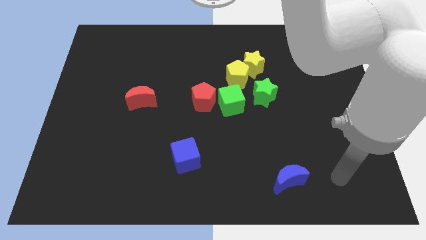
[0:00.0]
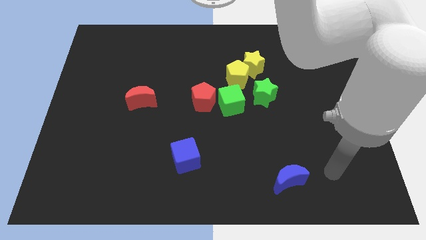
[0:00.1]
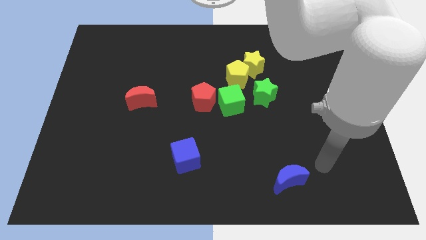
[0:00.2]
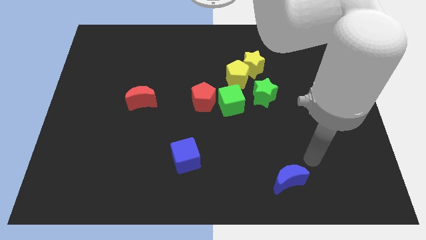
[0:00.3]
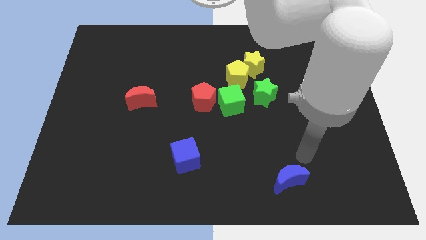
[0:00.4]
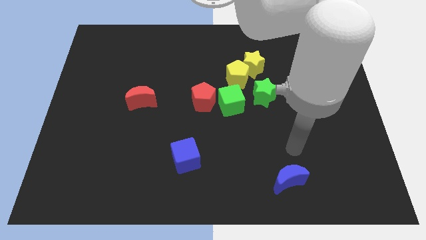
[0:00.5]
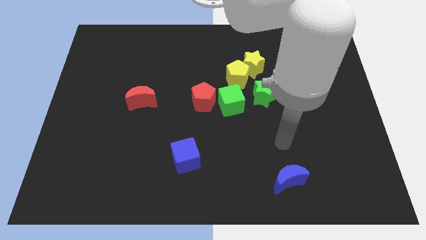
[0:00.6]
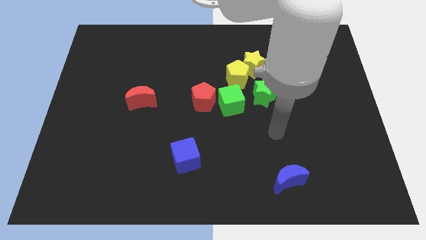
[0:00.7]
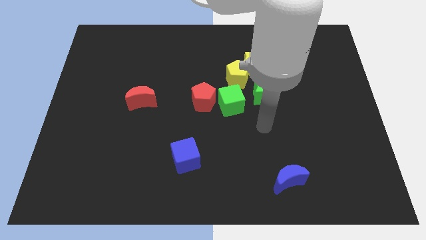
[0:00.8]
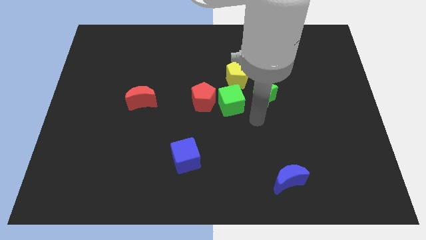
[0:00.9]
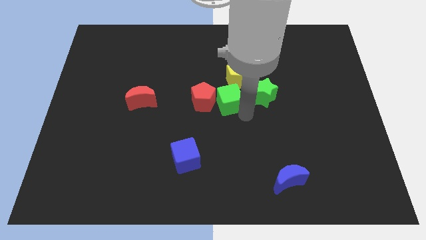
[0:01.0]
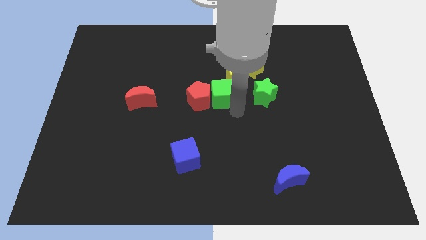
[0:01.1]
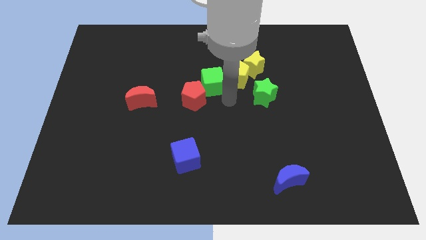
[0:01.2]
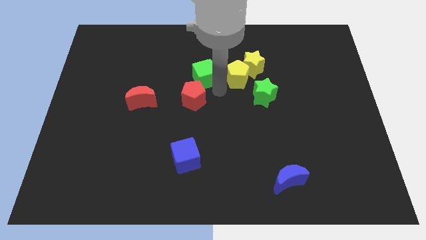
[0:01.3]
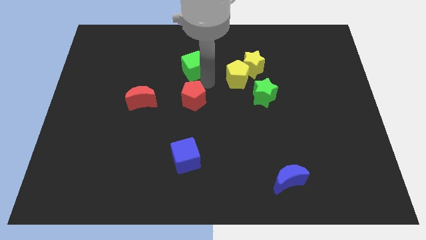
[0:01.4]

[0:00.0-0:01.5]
move the red pentagon away from the green cube

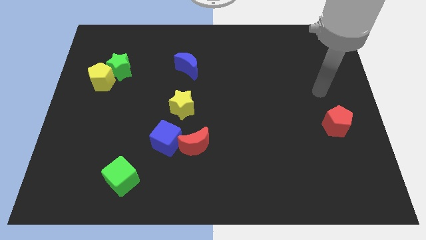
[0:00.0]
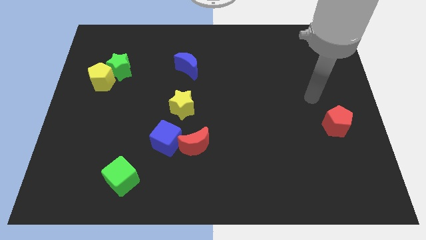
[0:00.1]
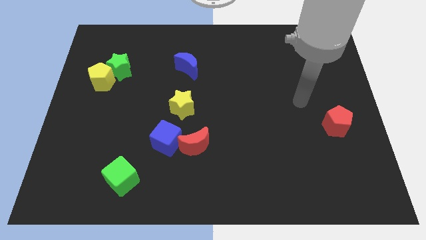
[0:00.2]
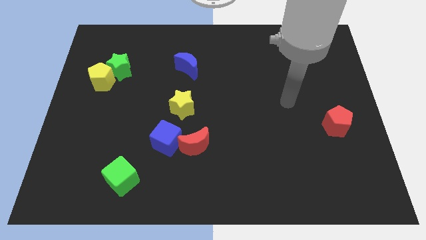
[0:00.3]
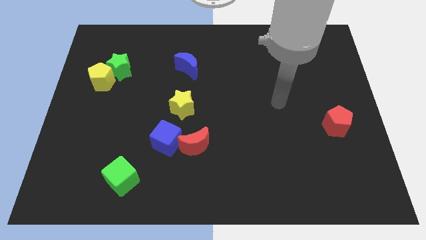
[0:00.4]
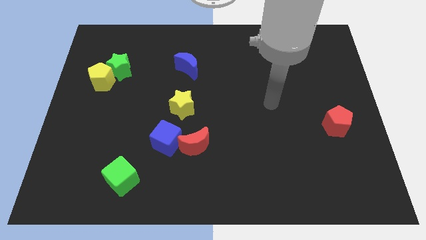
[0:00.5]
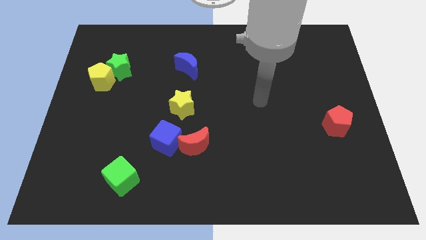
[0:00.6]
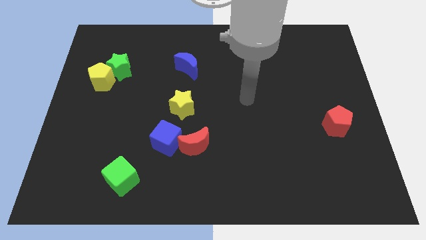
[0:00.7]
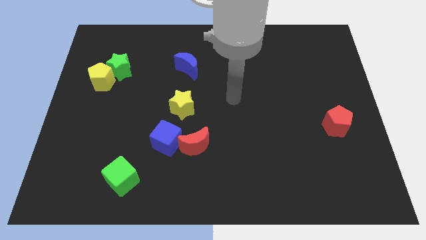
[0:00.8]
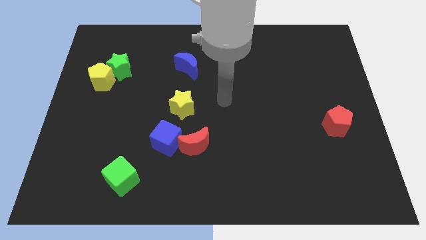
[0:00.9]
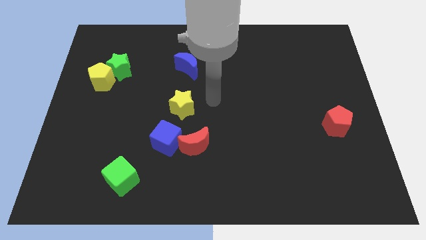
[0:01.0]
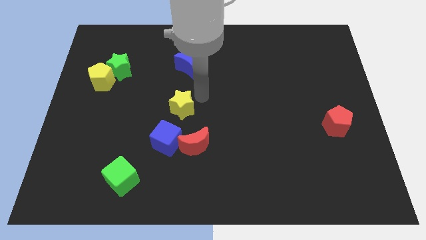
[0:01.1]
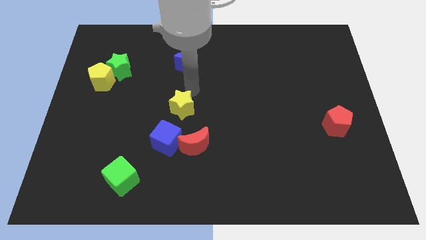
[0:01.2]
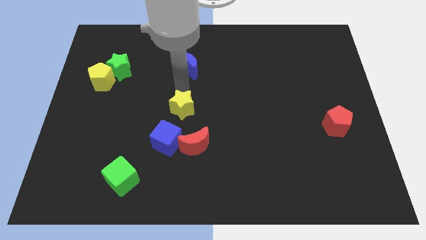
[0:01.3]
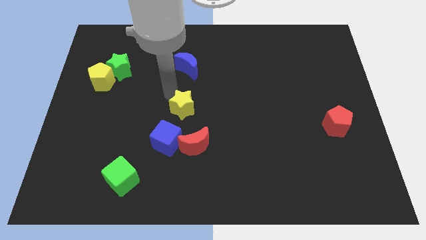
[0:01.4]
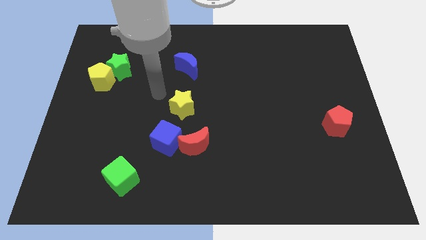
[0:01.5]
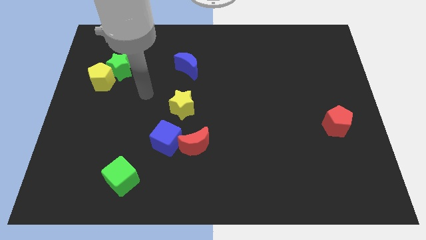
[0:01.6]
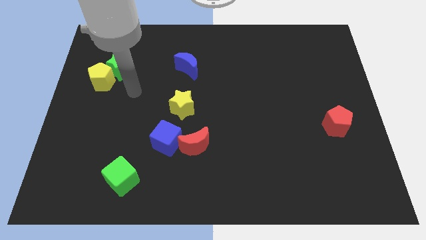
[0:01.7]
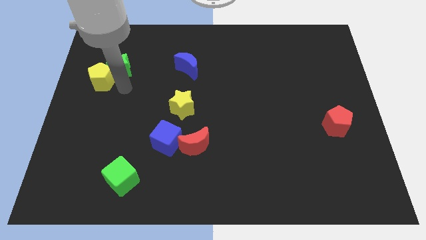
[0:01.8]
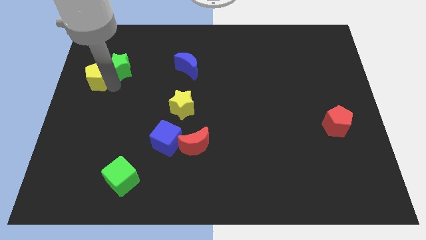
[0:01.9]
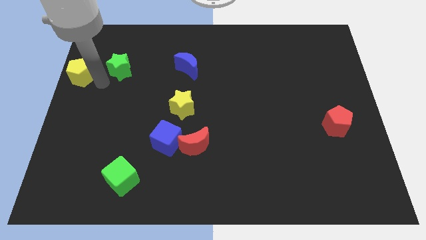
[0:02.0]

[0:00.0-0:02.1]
pull the green star apart from the yellow pentagon

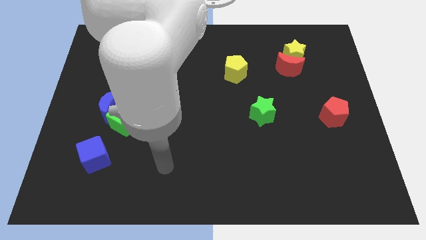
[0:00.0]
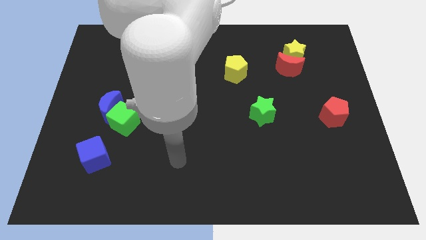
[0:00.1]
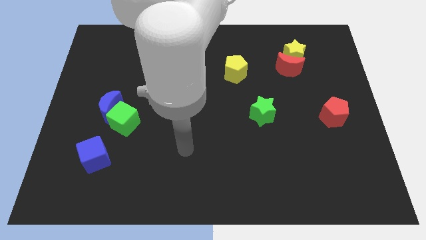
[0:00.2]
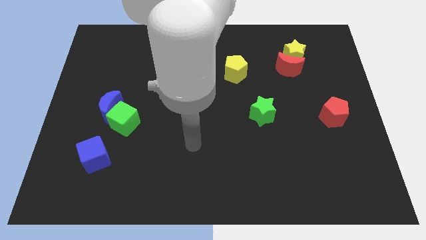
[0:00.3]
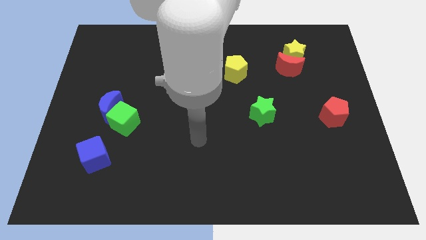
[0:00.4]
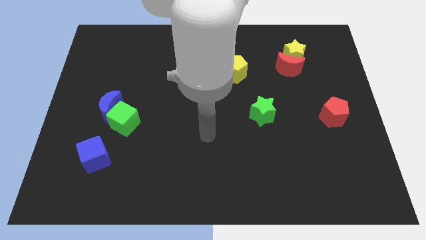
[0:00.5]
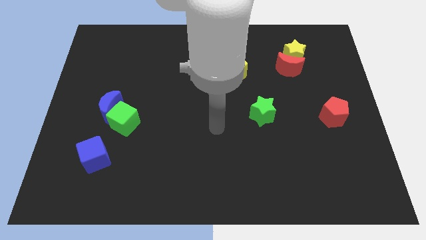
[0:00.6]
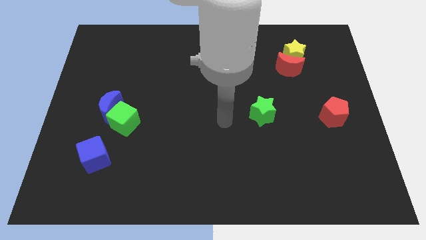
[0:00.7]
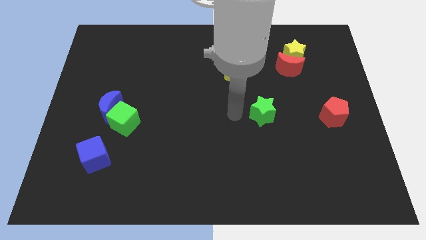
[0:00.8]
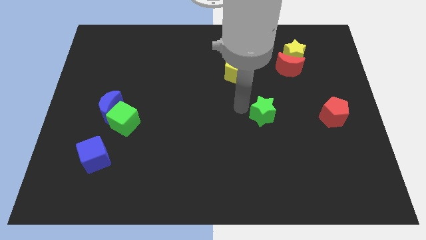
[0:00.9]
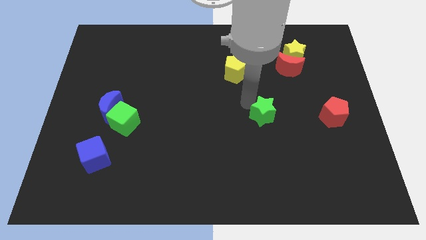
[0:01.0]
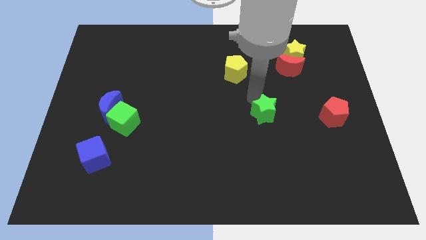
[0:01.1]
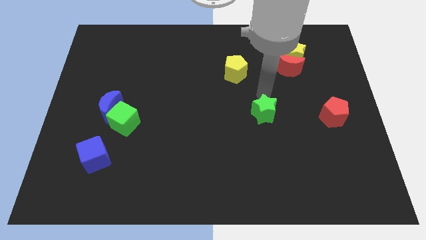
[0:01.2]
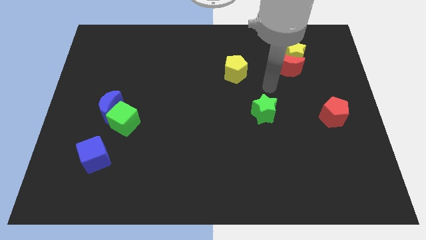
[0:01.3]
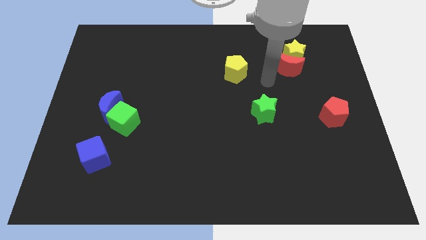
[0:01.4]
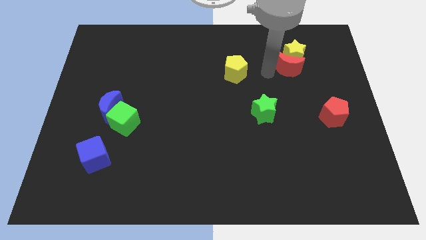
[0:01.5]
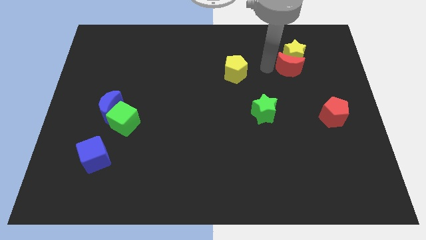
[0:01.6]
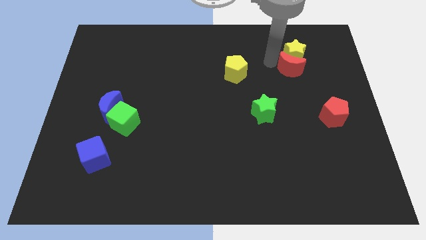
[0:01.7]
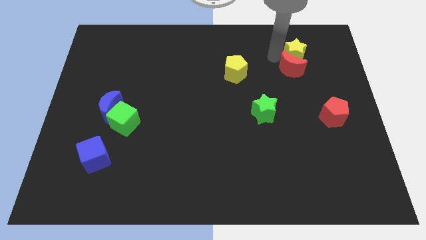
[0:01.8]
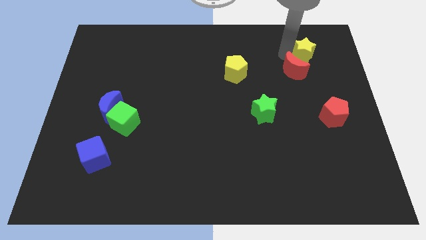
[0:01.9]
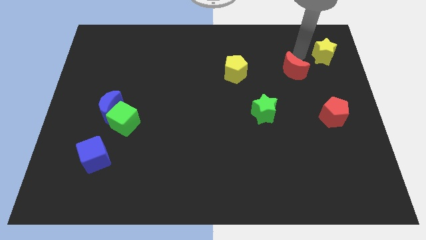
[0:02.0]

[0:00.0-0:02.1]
move the red moon away from the yellow star

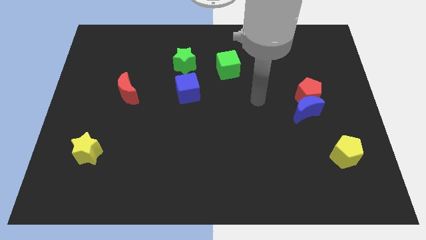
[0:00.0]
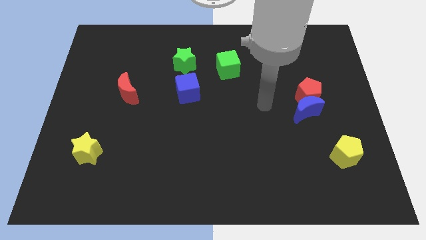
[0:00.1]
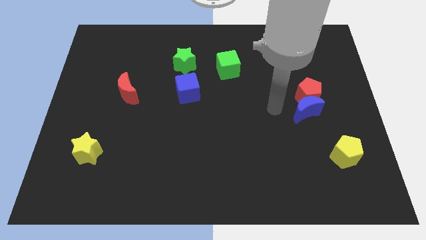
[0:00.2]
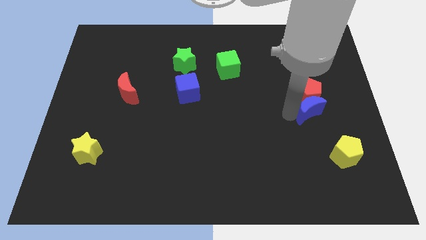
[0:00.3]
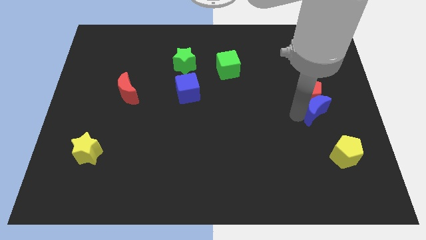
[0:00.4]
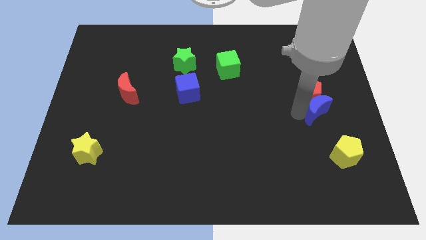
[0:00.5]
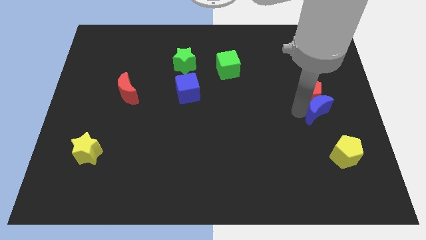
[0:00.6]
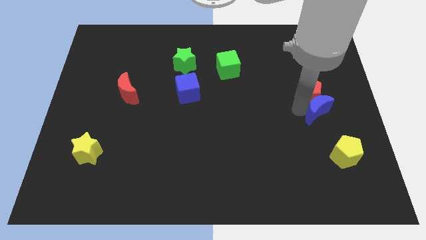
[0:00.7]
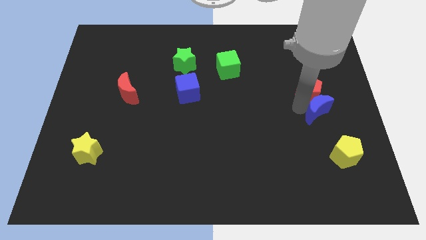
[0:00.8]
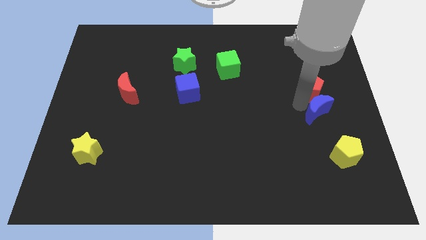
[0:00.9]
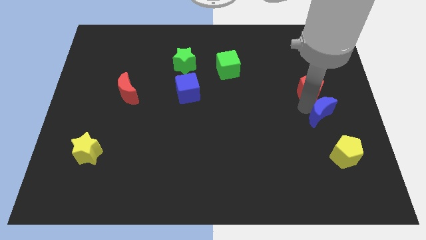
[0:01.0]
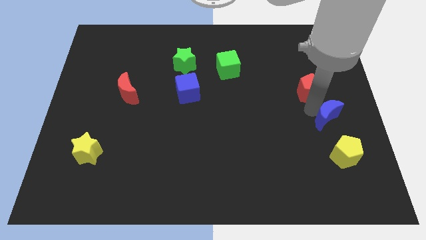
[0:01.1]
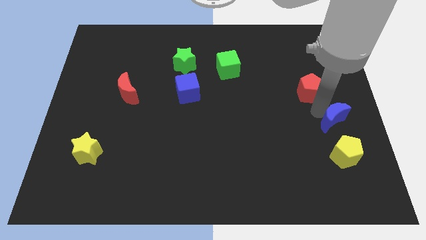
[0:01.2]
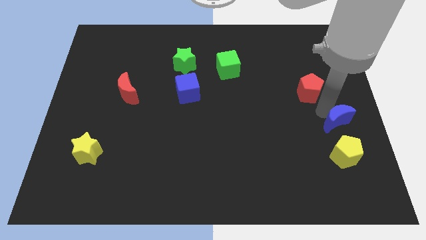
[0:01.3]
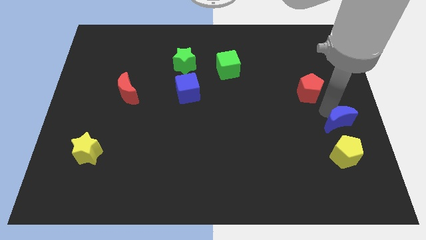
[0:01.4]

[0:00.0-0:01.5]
pull the red pentagon apart from the blue moon

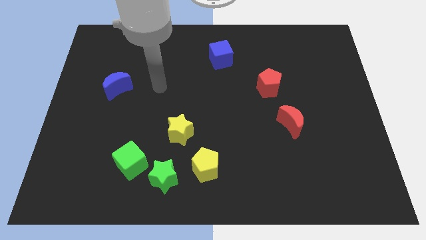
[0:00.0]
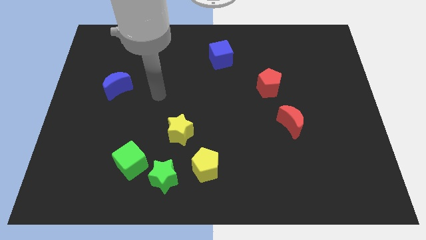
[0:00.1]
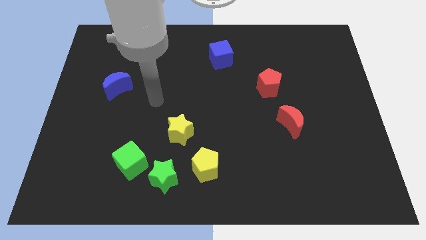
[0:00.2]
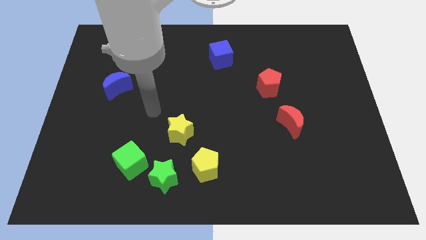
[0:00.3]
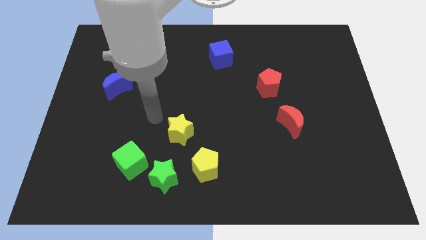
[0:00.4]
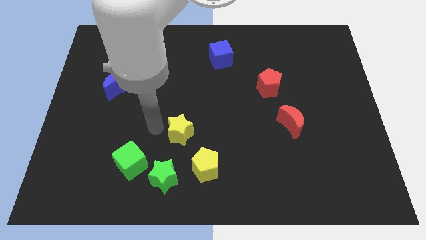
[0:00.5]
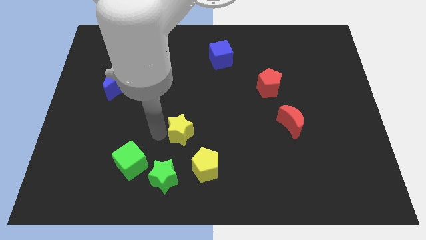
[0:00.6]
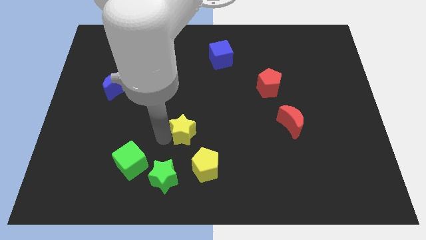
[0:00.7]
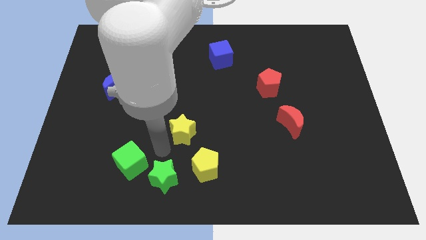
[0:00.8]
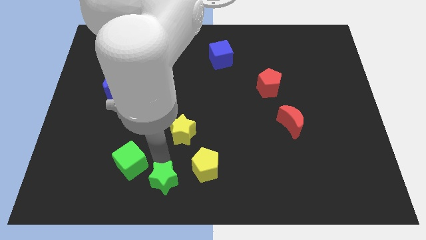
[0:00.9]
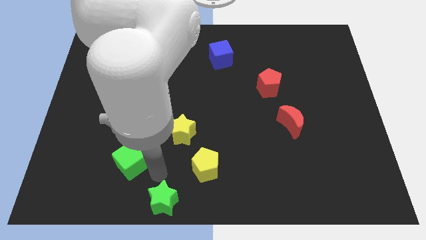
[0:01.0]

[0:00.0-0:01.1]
pull the green cube apart from the green star

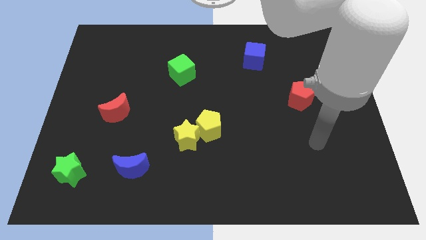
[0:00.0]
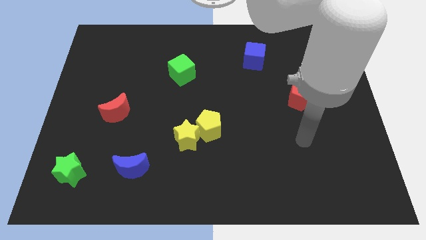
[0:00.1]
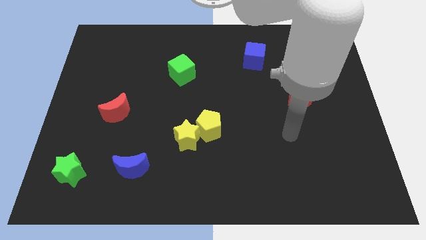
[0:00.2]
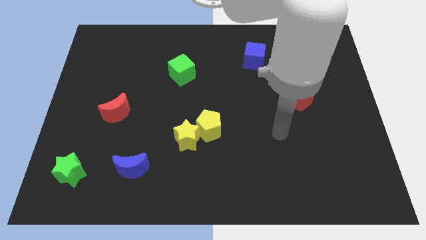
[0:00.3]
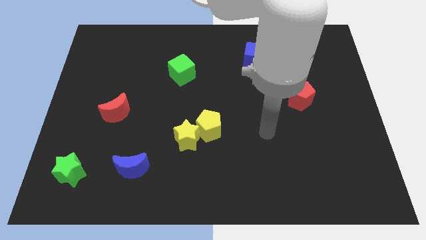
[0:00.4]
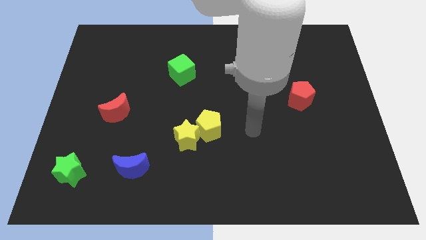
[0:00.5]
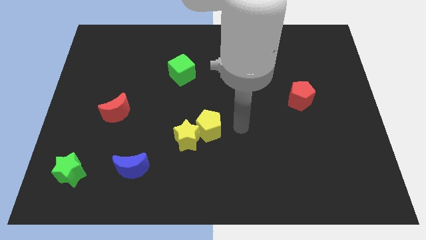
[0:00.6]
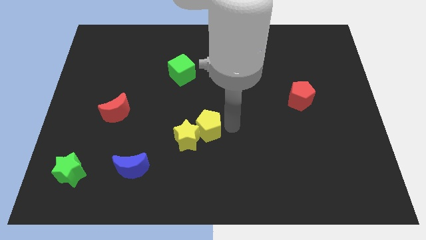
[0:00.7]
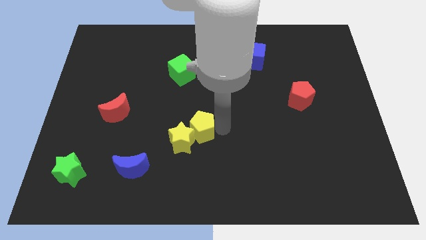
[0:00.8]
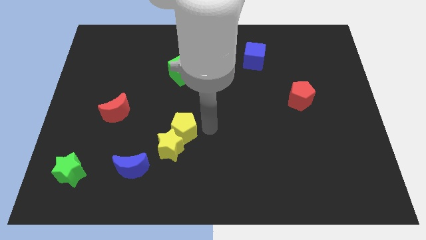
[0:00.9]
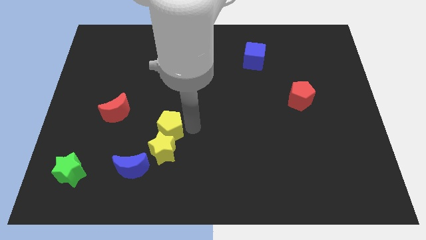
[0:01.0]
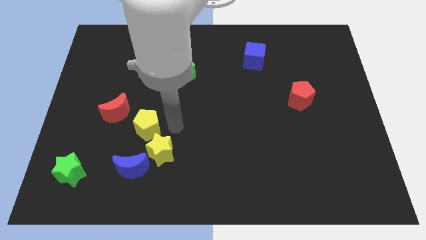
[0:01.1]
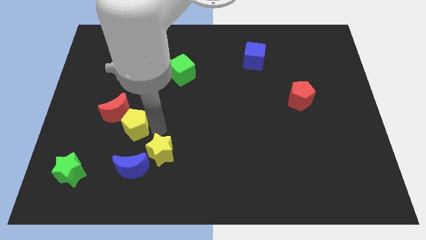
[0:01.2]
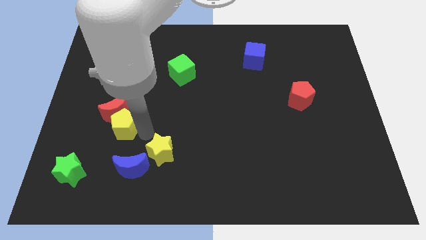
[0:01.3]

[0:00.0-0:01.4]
separate the yellow star from the yellow pentagon
